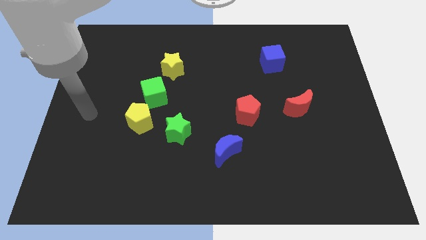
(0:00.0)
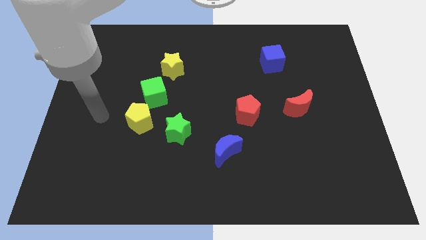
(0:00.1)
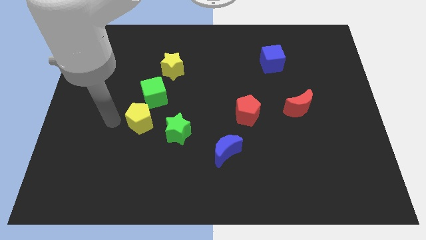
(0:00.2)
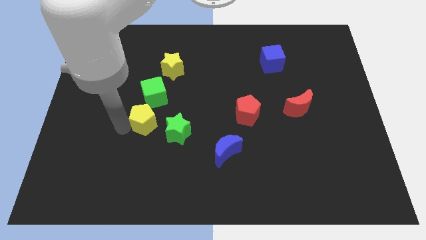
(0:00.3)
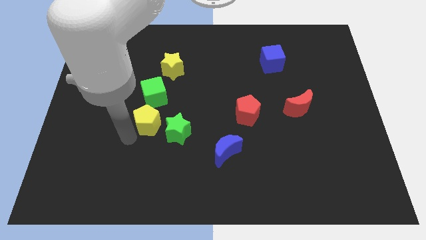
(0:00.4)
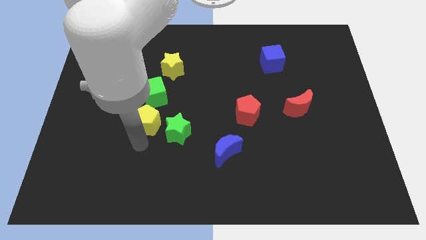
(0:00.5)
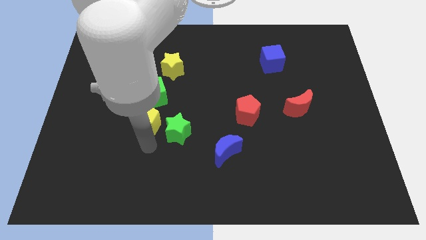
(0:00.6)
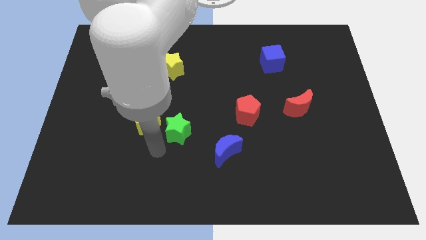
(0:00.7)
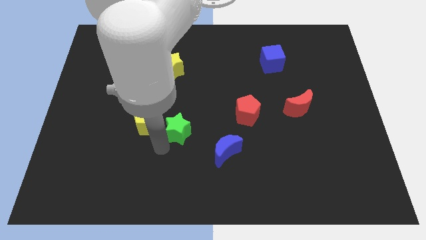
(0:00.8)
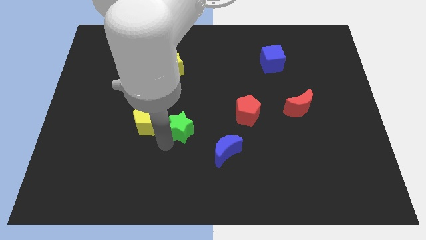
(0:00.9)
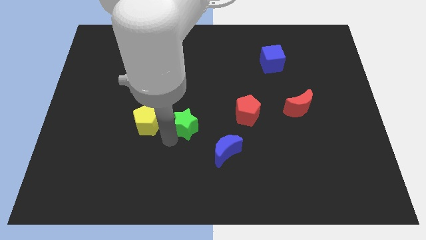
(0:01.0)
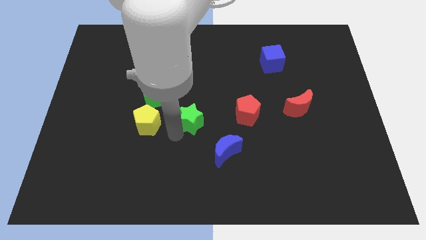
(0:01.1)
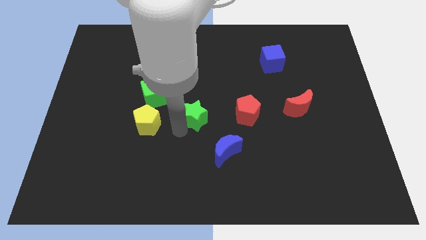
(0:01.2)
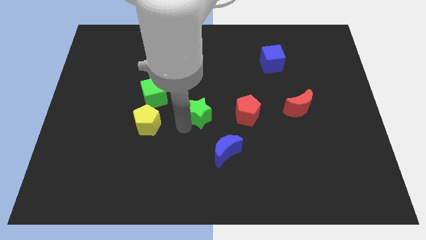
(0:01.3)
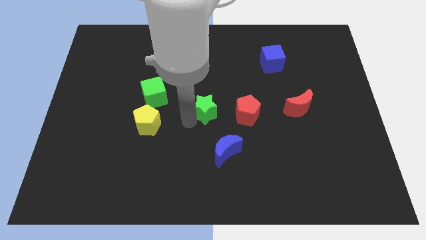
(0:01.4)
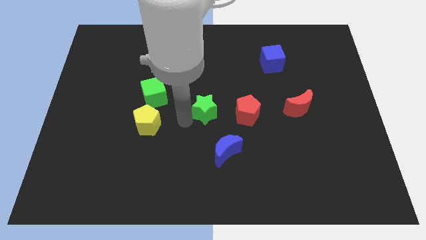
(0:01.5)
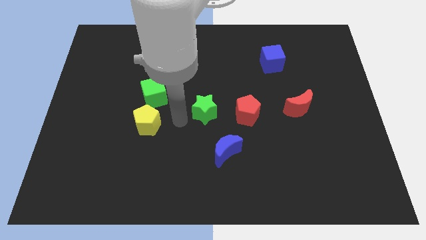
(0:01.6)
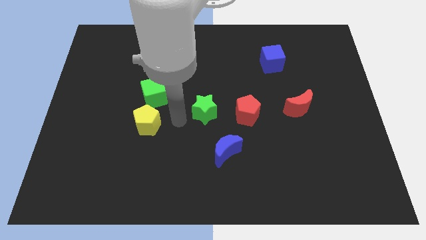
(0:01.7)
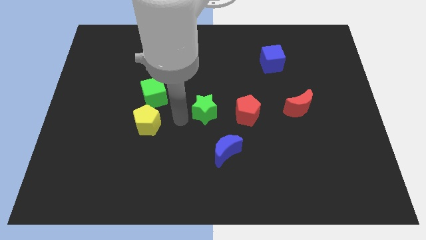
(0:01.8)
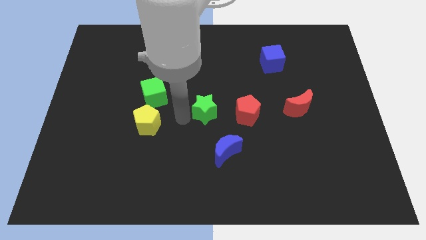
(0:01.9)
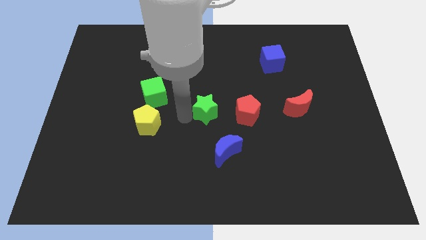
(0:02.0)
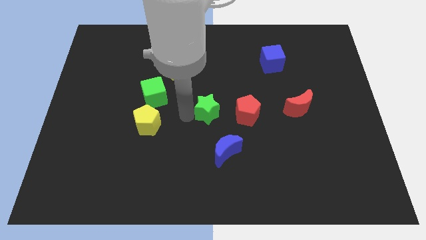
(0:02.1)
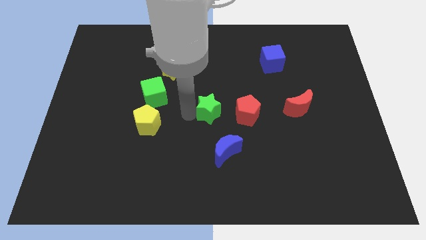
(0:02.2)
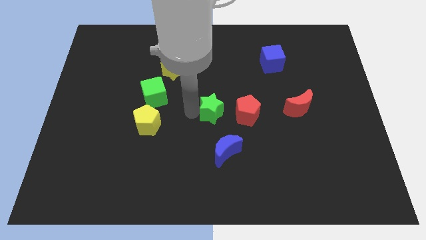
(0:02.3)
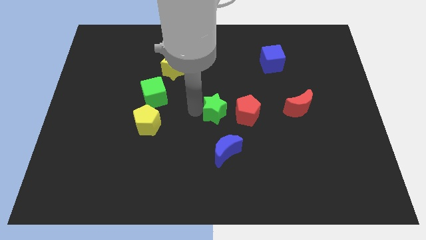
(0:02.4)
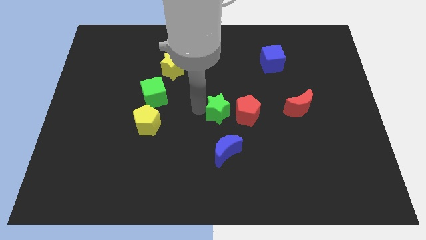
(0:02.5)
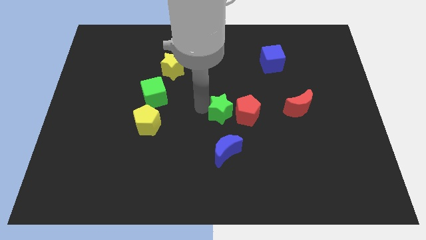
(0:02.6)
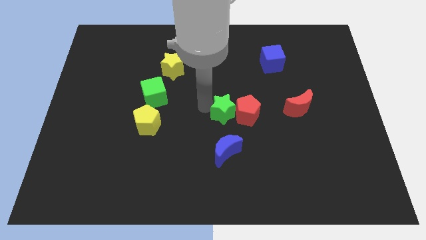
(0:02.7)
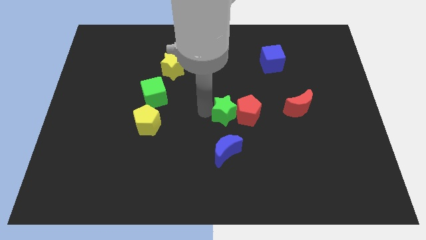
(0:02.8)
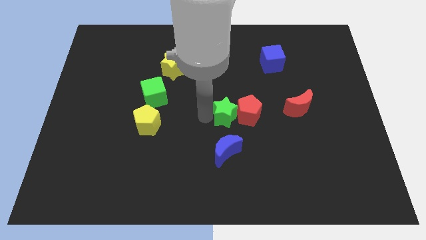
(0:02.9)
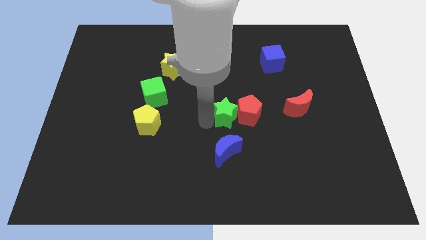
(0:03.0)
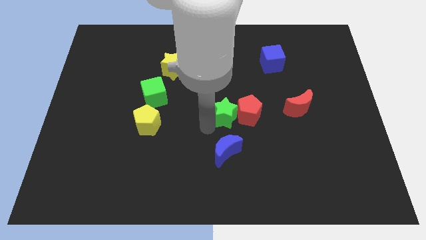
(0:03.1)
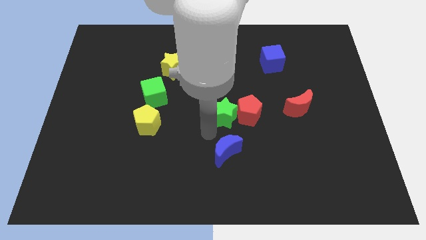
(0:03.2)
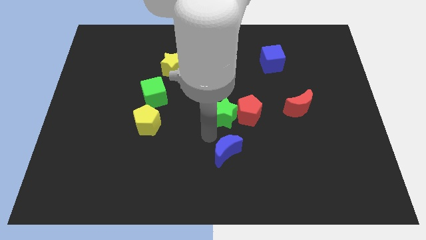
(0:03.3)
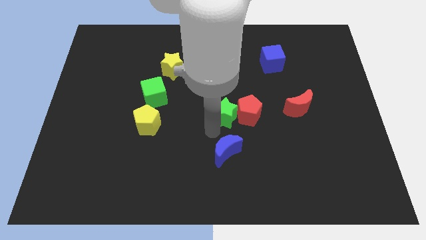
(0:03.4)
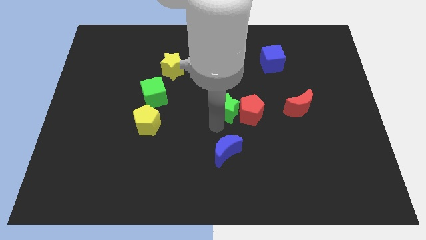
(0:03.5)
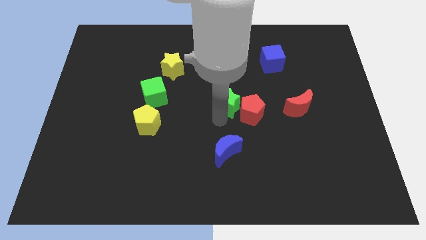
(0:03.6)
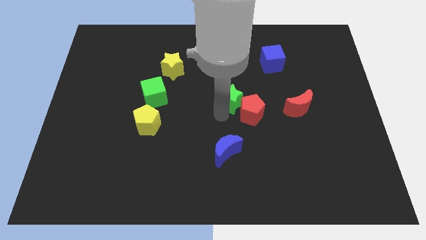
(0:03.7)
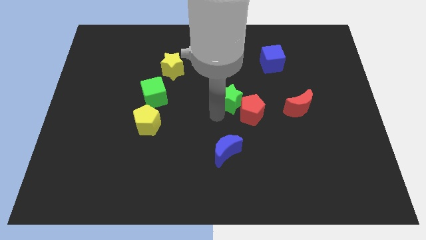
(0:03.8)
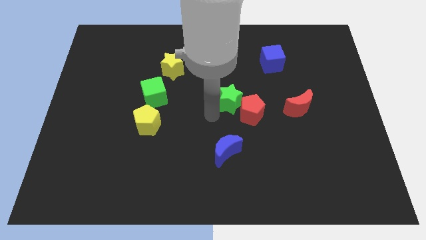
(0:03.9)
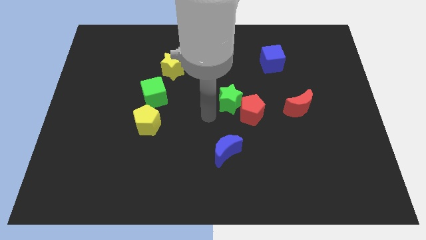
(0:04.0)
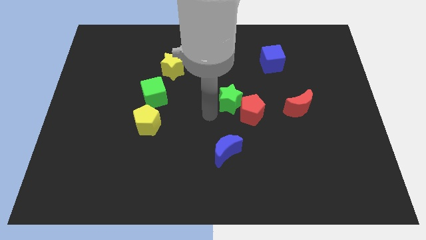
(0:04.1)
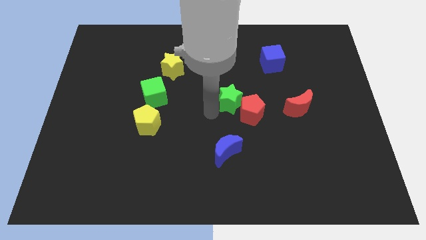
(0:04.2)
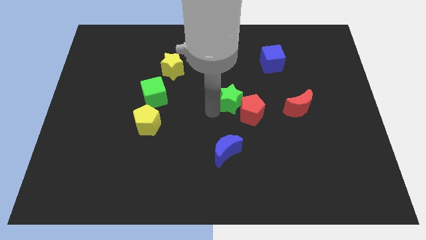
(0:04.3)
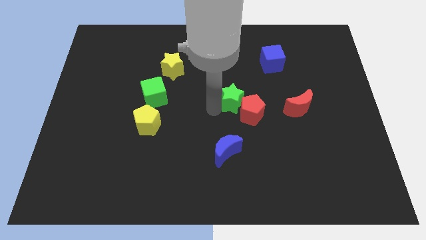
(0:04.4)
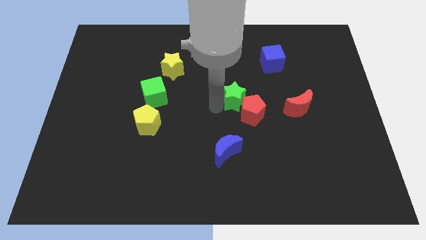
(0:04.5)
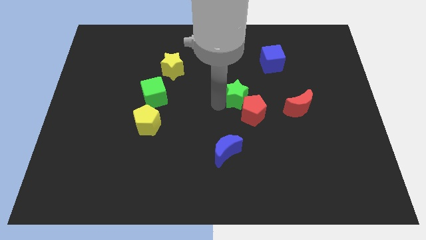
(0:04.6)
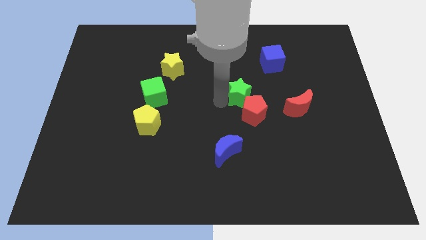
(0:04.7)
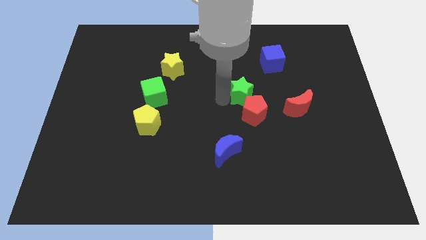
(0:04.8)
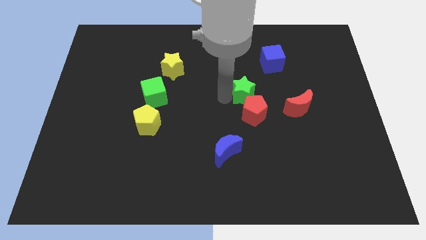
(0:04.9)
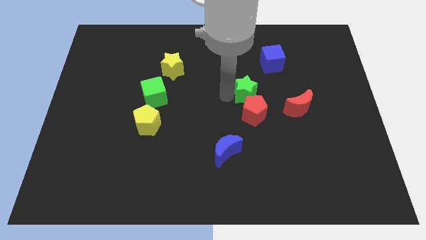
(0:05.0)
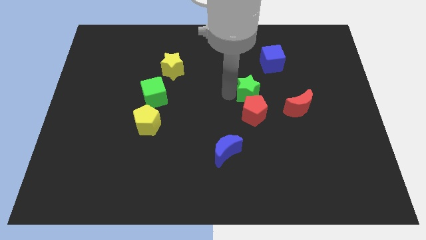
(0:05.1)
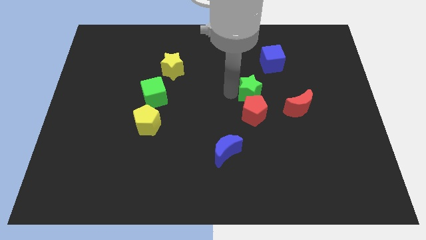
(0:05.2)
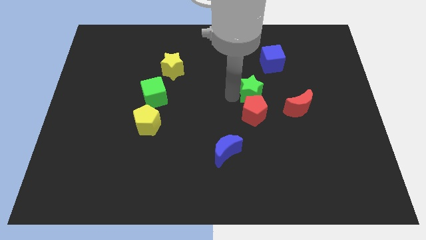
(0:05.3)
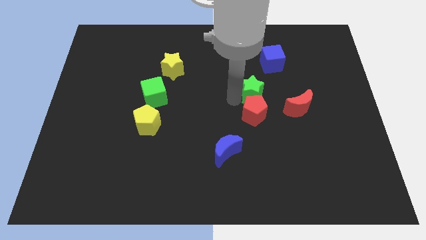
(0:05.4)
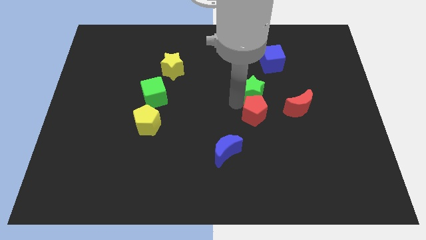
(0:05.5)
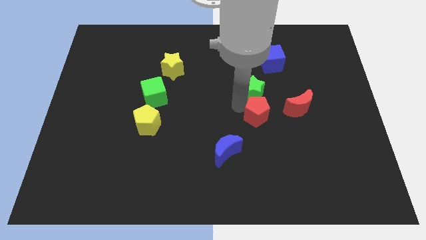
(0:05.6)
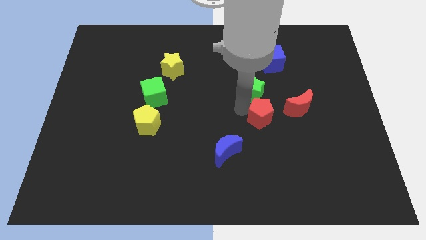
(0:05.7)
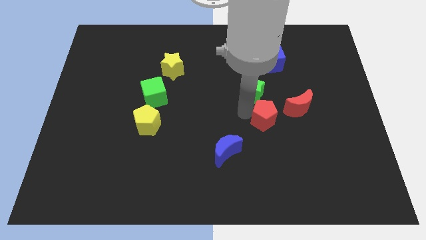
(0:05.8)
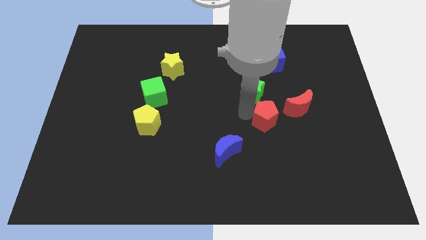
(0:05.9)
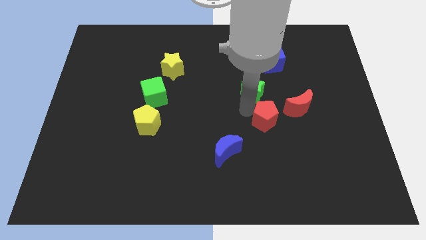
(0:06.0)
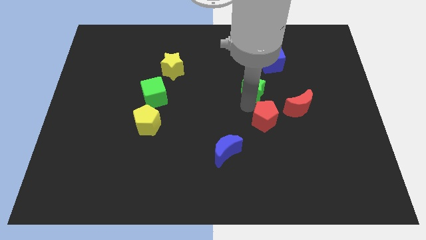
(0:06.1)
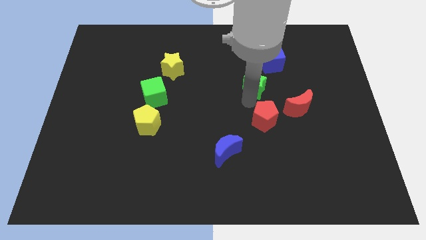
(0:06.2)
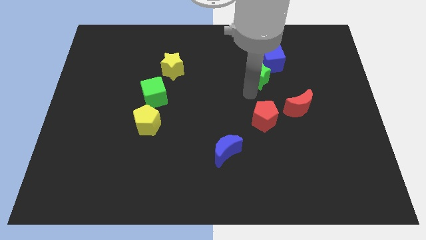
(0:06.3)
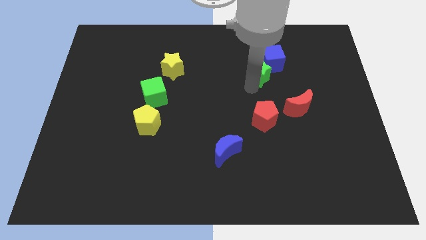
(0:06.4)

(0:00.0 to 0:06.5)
put the green star to the blue cube

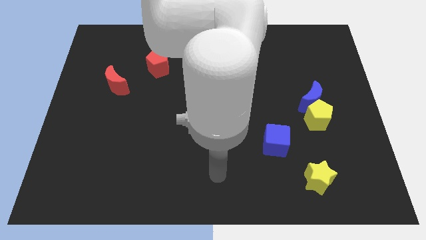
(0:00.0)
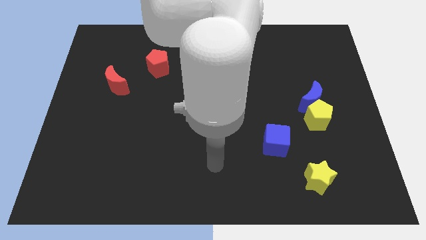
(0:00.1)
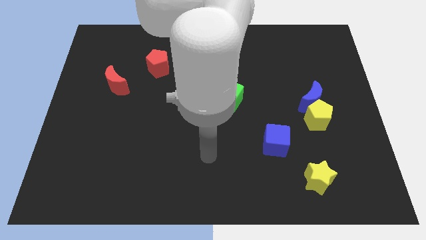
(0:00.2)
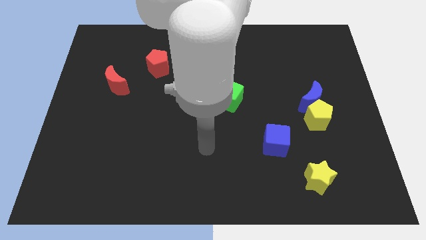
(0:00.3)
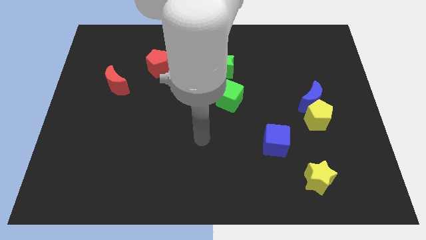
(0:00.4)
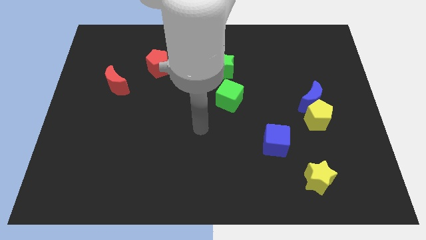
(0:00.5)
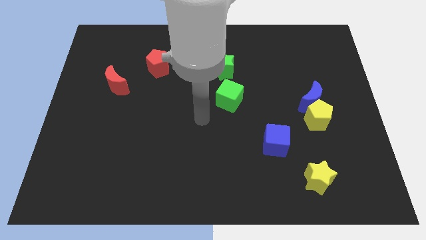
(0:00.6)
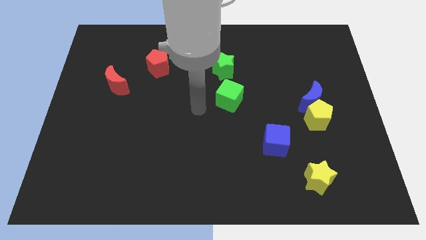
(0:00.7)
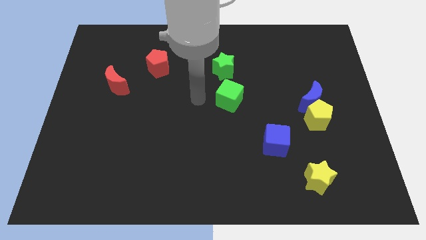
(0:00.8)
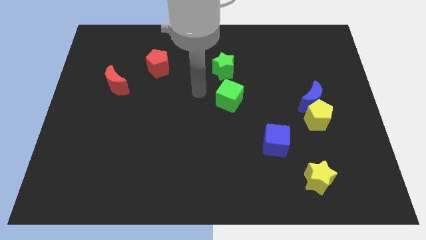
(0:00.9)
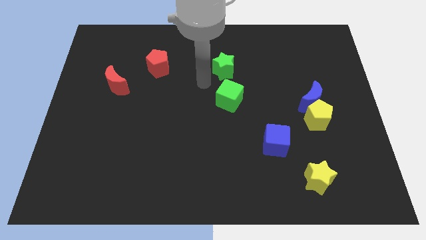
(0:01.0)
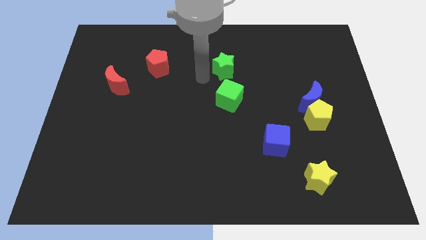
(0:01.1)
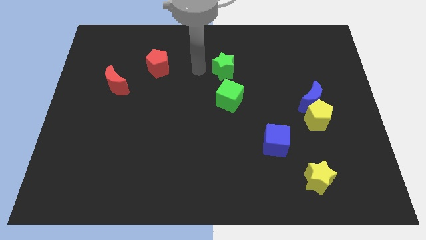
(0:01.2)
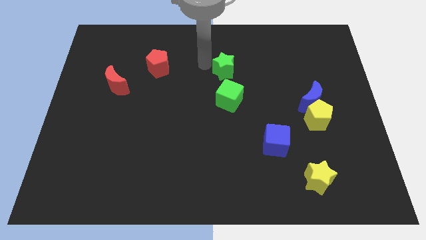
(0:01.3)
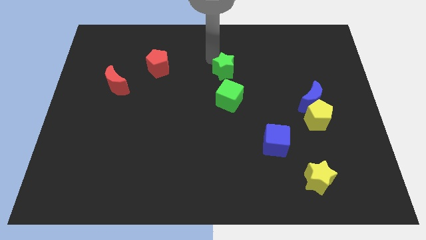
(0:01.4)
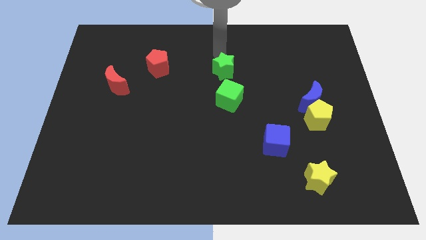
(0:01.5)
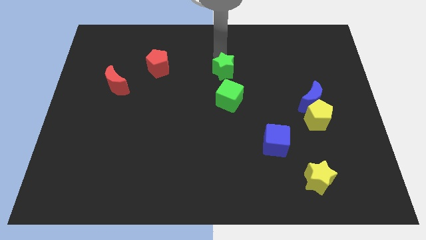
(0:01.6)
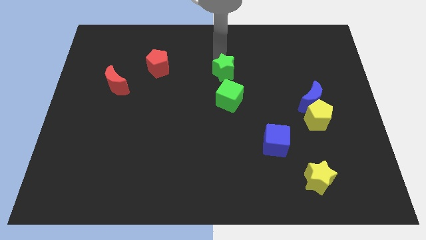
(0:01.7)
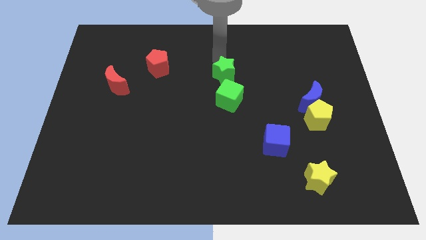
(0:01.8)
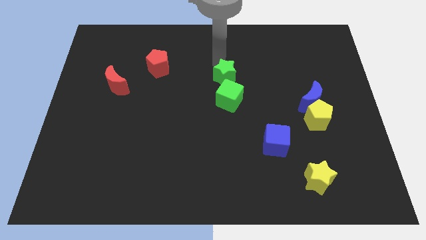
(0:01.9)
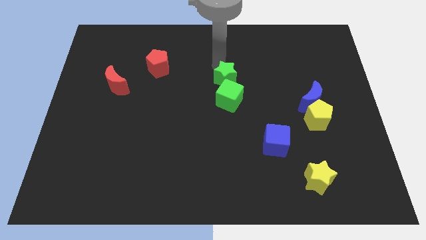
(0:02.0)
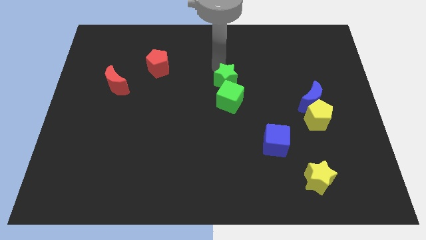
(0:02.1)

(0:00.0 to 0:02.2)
move the green star towards the green cube
